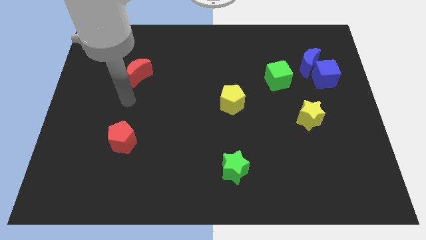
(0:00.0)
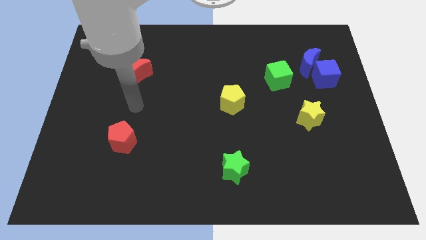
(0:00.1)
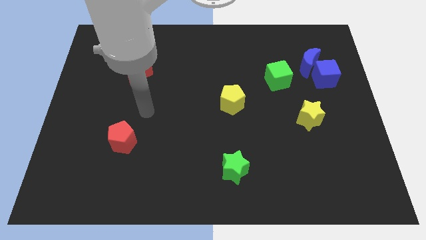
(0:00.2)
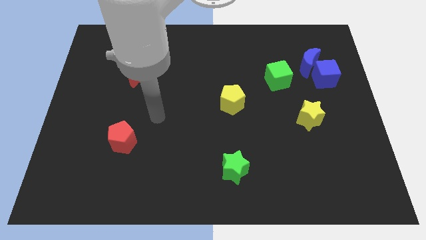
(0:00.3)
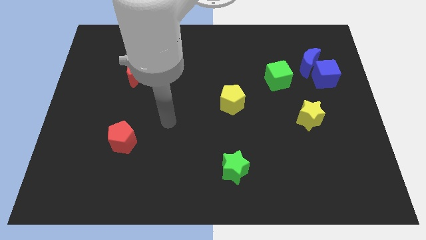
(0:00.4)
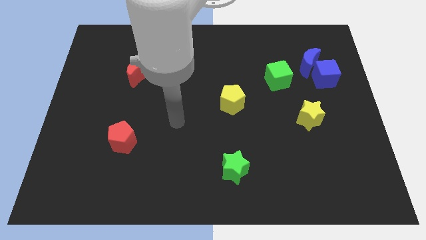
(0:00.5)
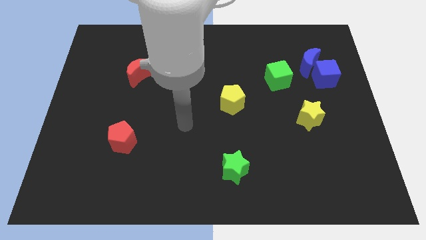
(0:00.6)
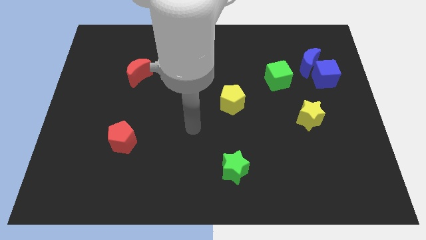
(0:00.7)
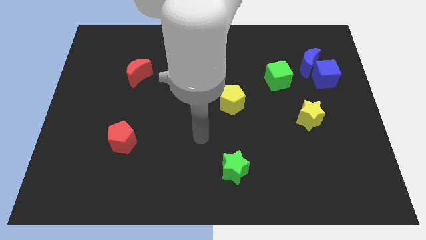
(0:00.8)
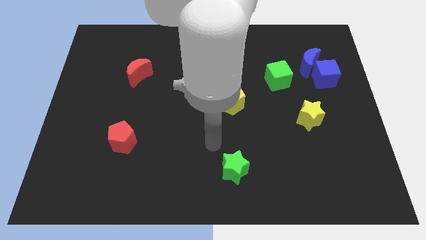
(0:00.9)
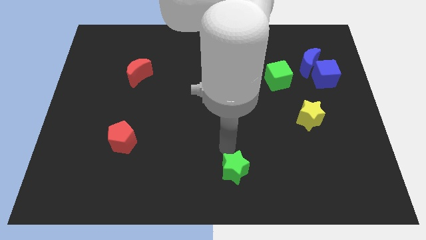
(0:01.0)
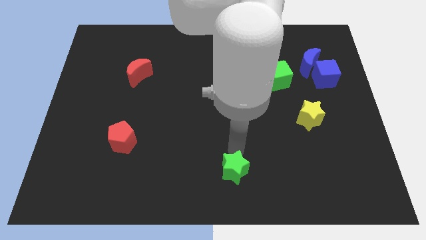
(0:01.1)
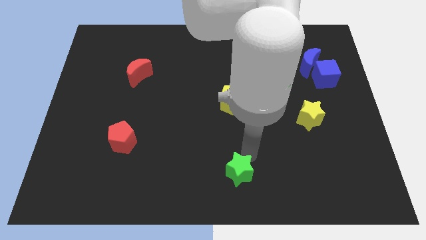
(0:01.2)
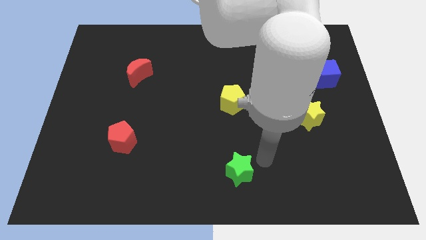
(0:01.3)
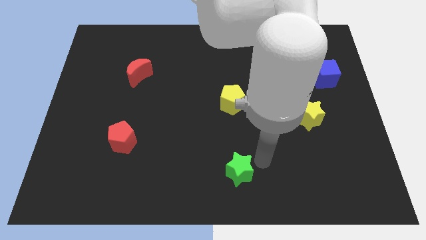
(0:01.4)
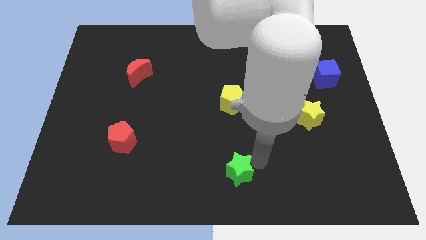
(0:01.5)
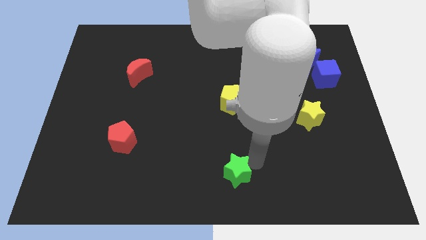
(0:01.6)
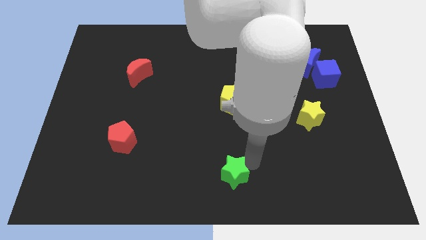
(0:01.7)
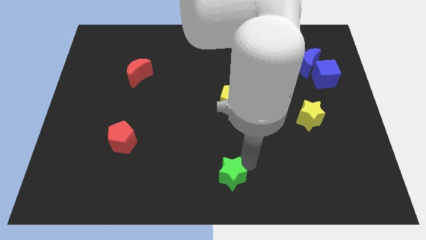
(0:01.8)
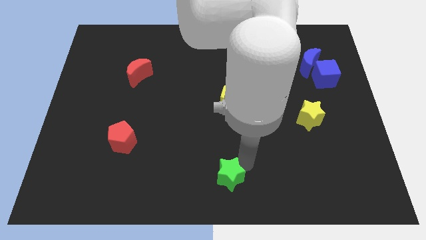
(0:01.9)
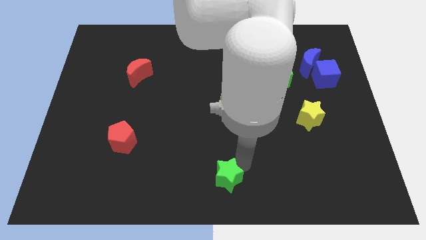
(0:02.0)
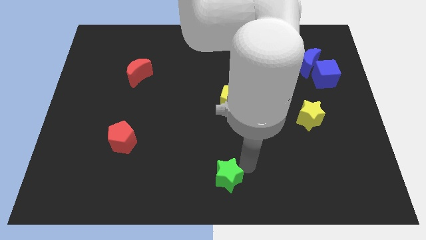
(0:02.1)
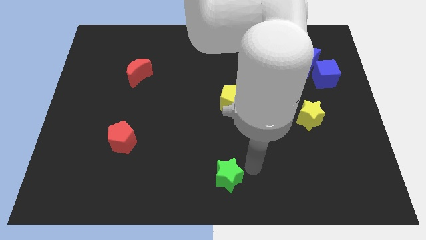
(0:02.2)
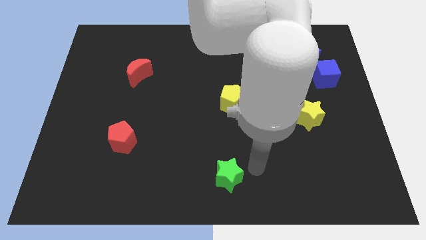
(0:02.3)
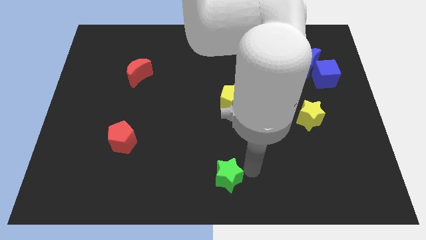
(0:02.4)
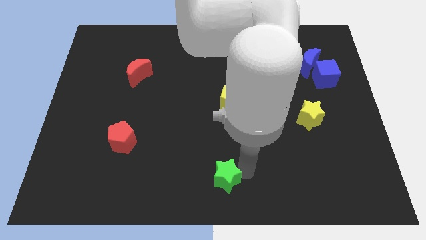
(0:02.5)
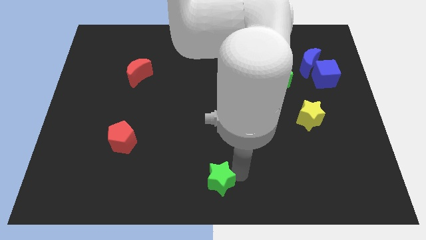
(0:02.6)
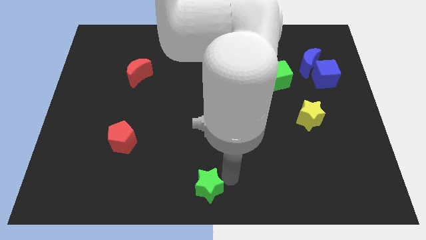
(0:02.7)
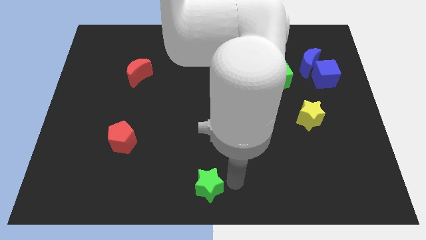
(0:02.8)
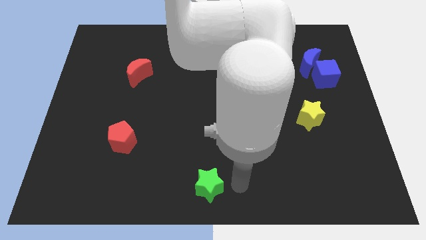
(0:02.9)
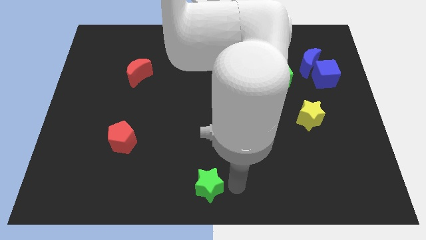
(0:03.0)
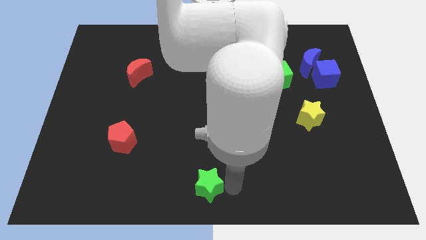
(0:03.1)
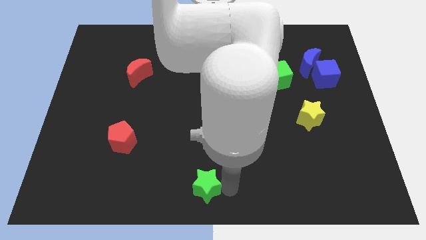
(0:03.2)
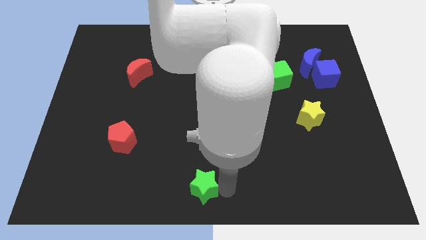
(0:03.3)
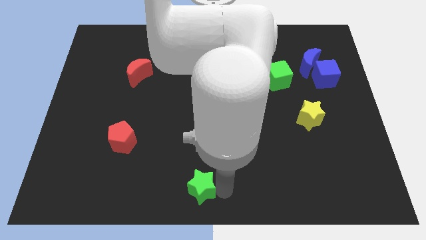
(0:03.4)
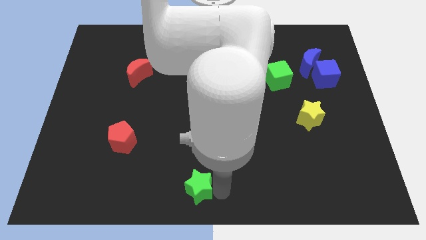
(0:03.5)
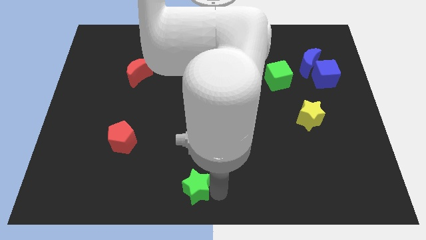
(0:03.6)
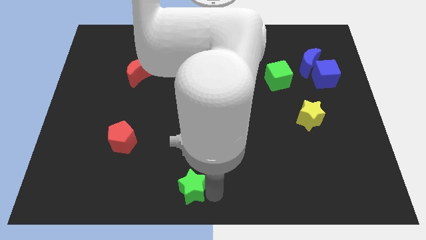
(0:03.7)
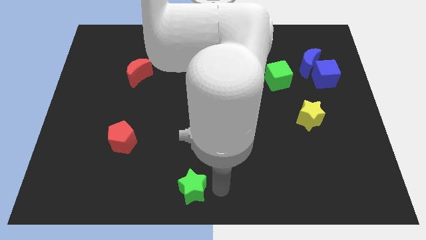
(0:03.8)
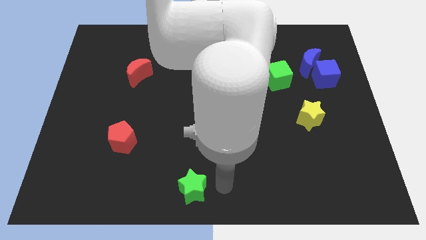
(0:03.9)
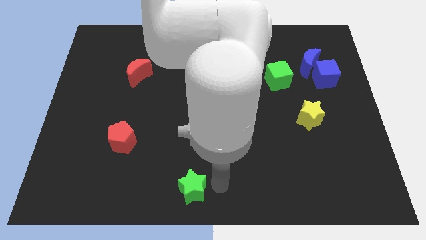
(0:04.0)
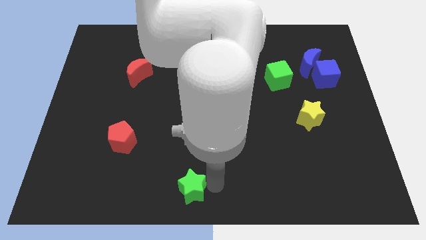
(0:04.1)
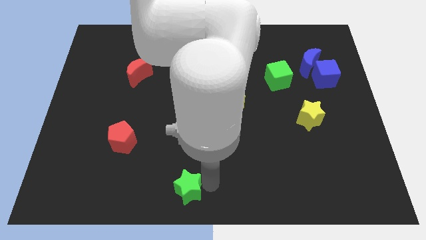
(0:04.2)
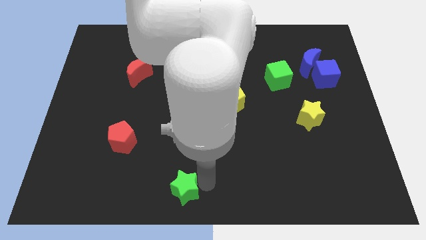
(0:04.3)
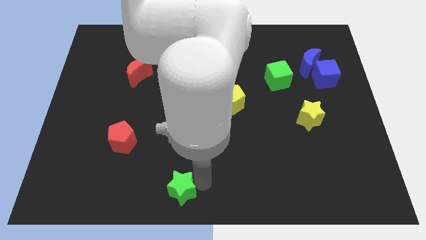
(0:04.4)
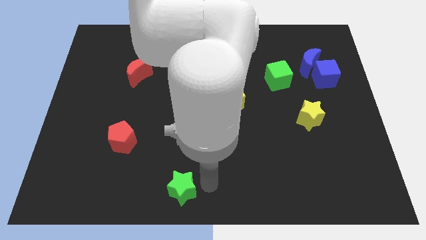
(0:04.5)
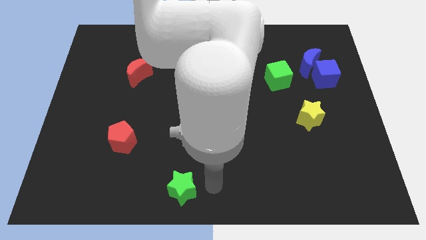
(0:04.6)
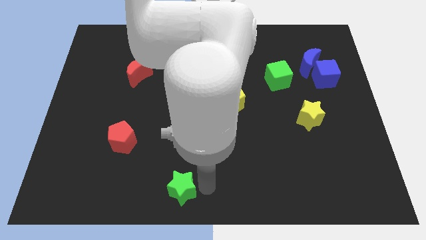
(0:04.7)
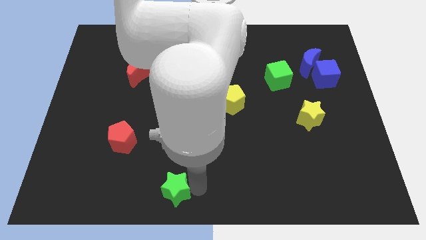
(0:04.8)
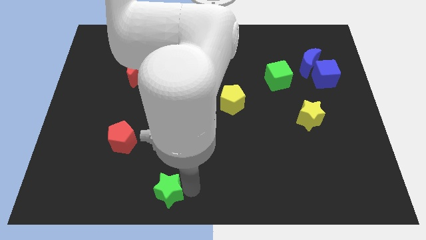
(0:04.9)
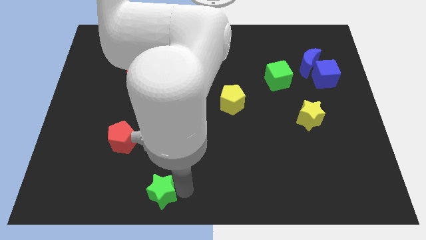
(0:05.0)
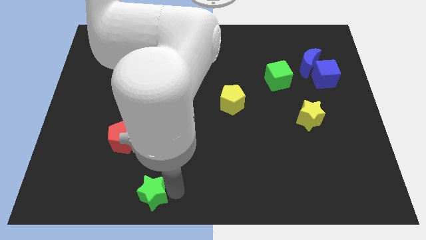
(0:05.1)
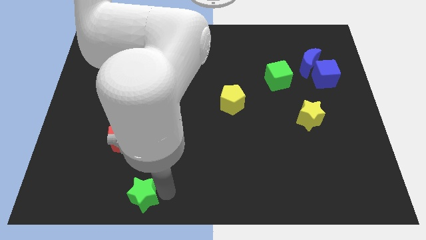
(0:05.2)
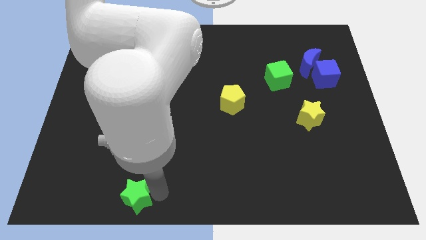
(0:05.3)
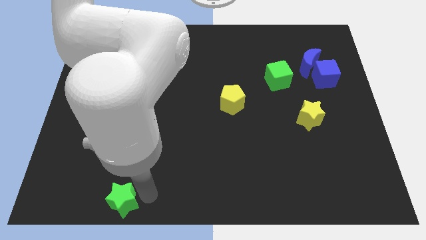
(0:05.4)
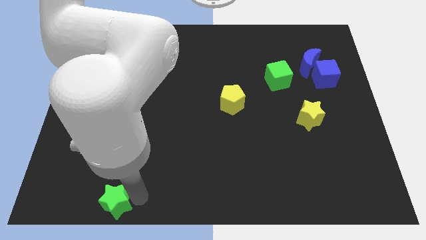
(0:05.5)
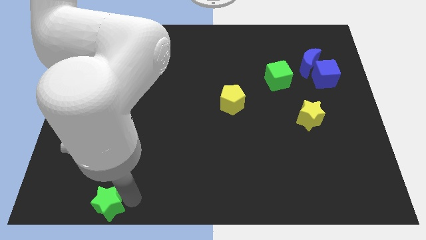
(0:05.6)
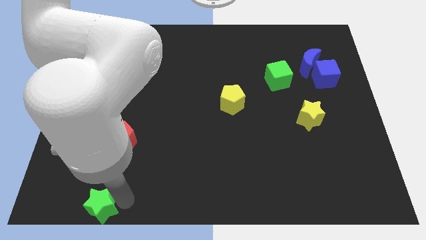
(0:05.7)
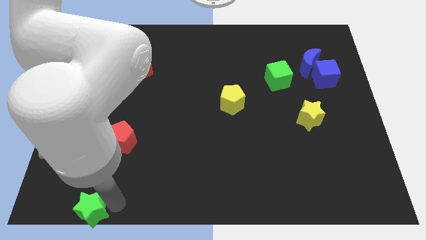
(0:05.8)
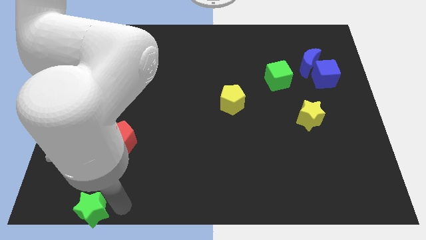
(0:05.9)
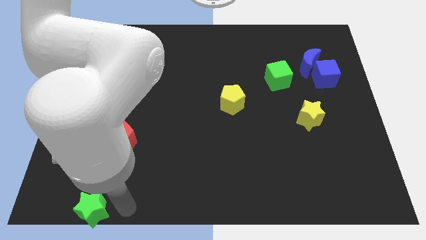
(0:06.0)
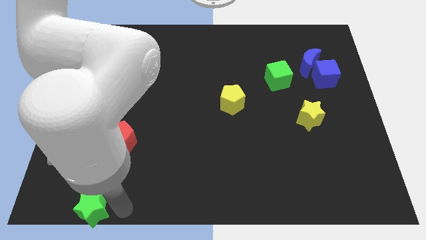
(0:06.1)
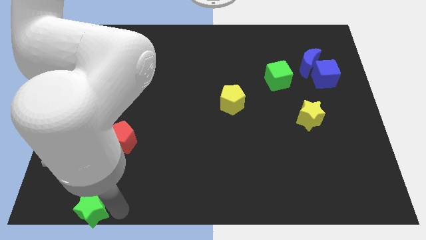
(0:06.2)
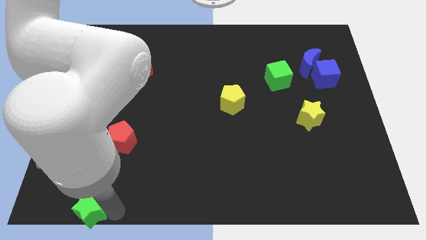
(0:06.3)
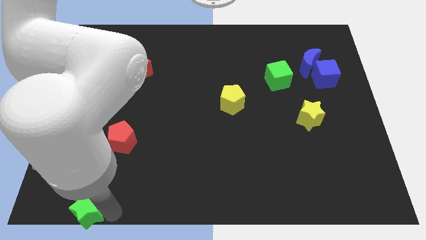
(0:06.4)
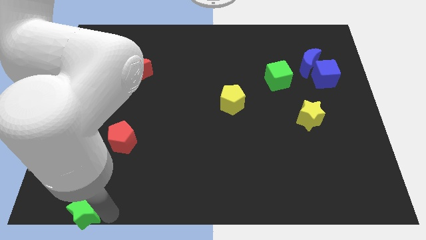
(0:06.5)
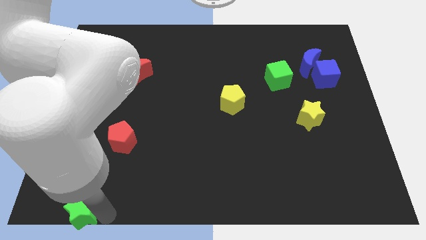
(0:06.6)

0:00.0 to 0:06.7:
put the green star to the bottom left
